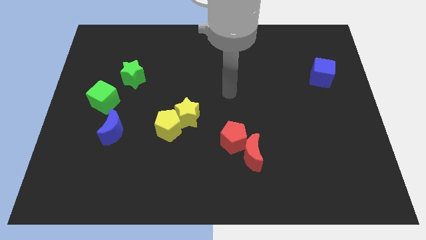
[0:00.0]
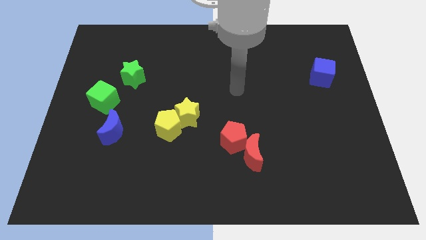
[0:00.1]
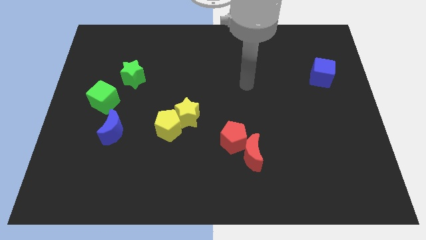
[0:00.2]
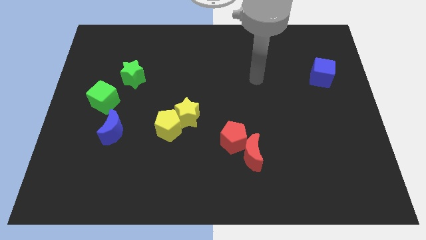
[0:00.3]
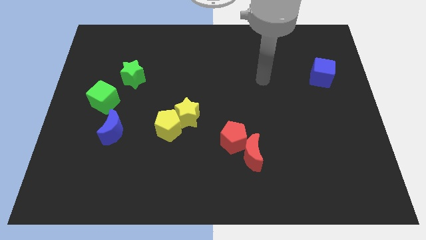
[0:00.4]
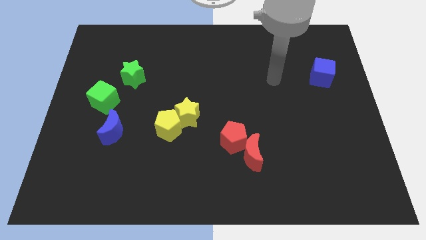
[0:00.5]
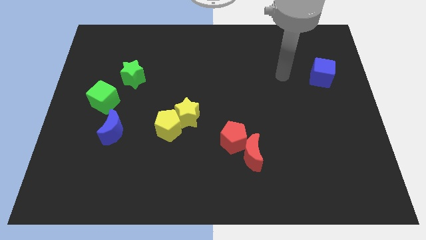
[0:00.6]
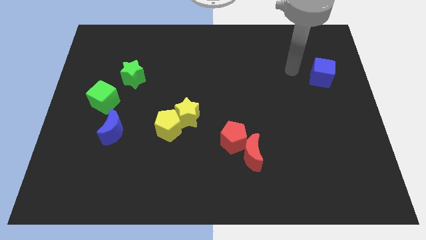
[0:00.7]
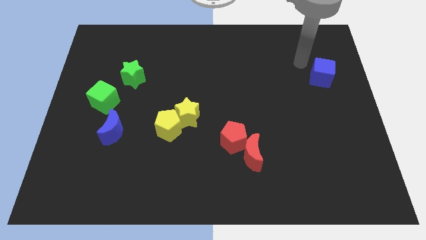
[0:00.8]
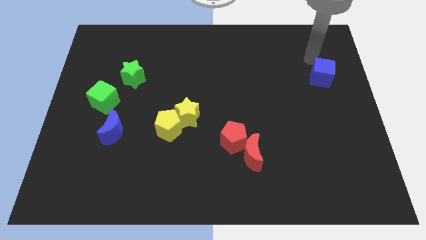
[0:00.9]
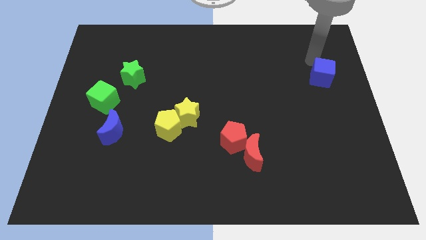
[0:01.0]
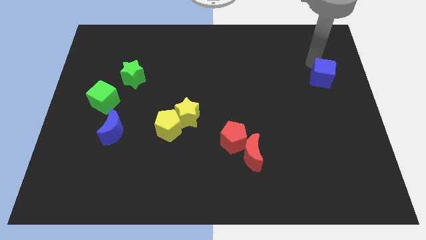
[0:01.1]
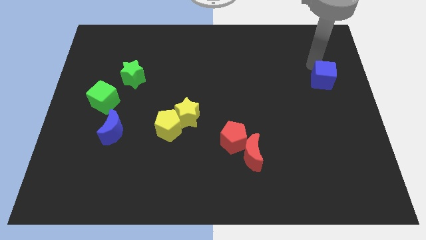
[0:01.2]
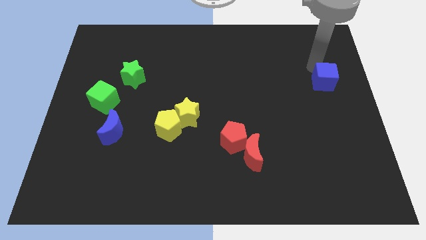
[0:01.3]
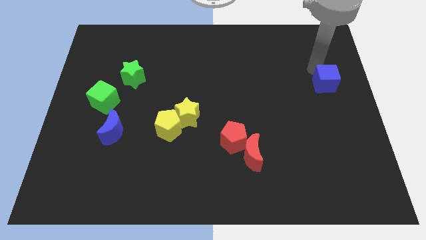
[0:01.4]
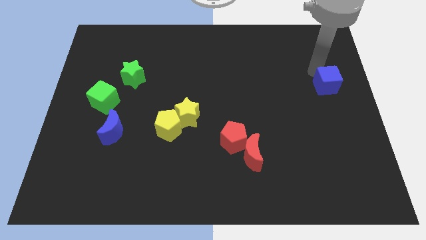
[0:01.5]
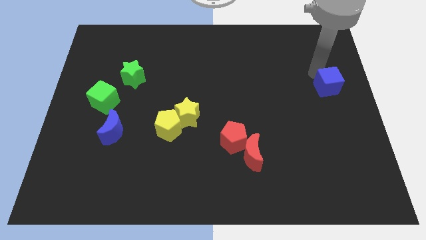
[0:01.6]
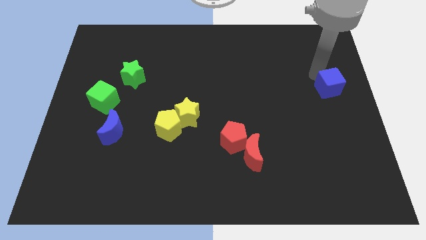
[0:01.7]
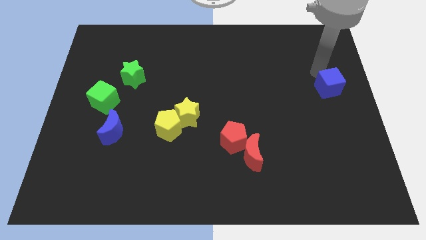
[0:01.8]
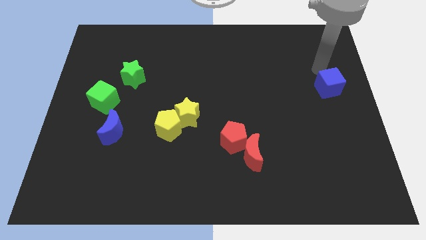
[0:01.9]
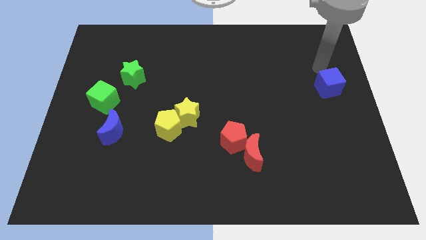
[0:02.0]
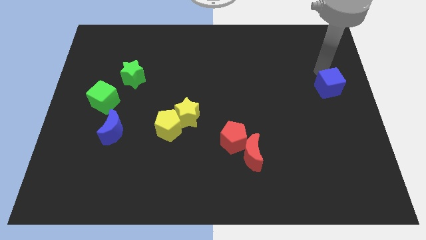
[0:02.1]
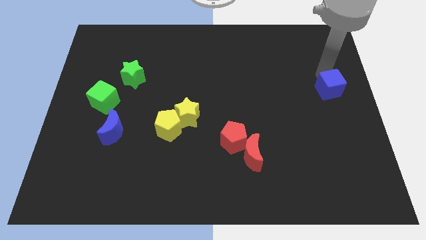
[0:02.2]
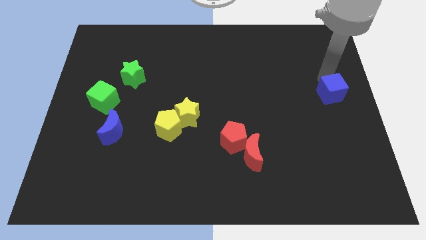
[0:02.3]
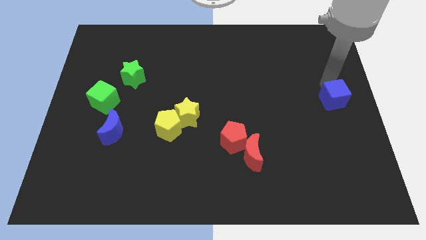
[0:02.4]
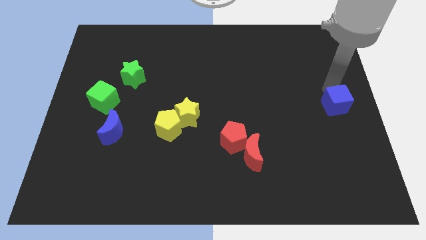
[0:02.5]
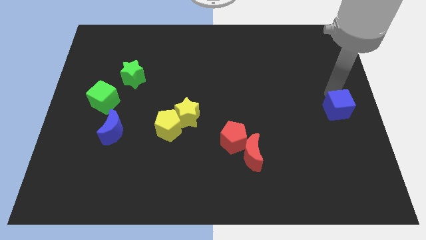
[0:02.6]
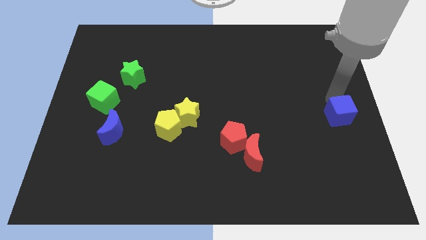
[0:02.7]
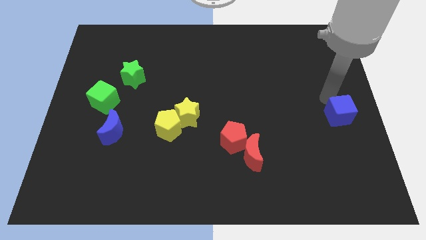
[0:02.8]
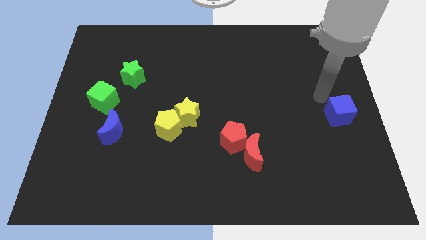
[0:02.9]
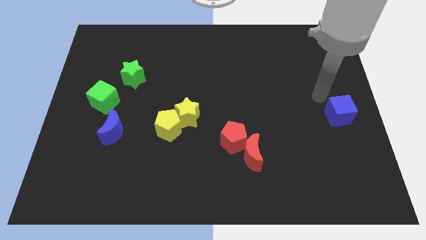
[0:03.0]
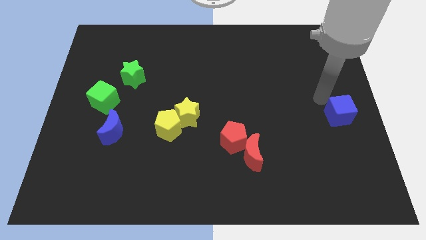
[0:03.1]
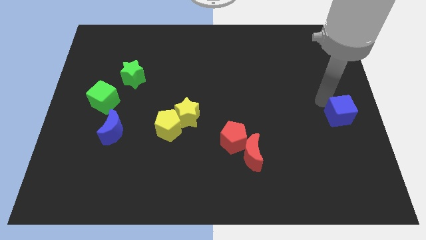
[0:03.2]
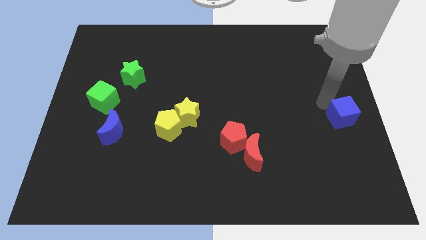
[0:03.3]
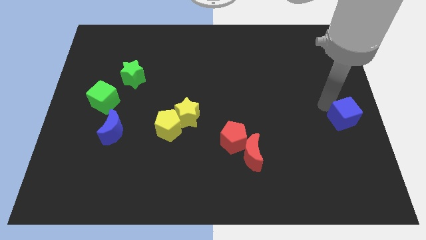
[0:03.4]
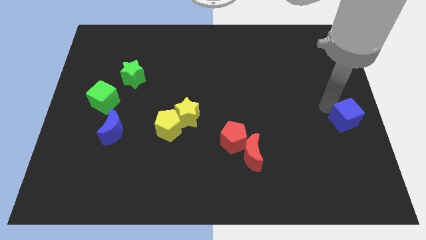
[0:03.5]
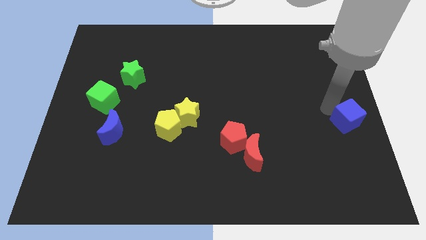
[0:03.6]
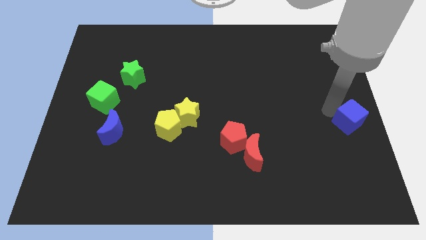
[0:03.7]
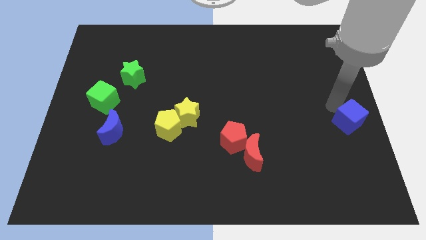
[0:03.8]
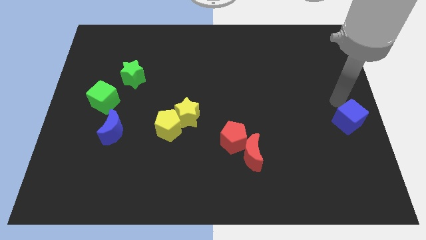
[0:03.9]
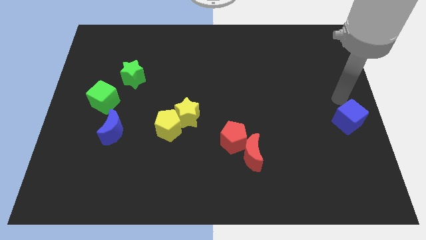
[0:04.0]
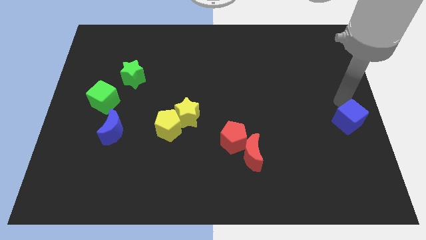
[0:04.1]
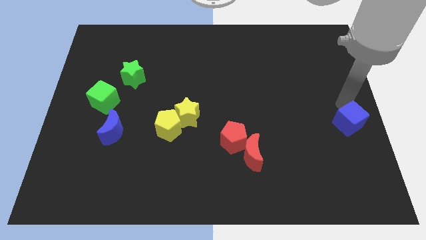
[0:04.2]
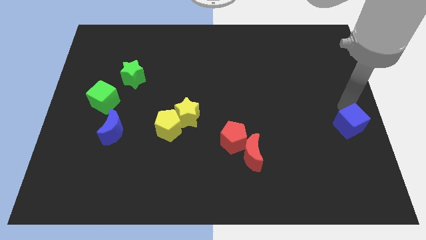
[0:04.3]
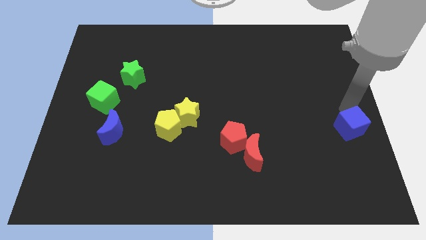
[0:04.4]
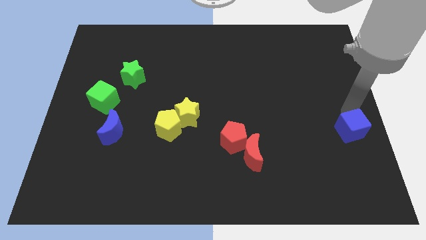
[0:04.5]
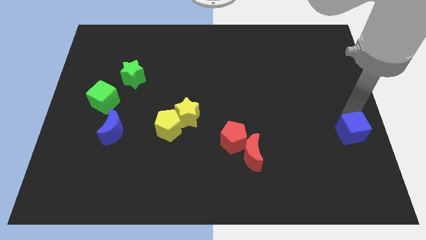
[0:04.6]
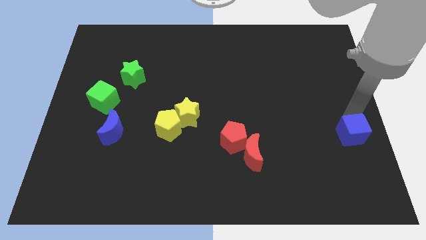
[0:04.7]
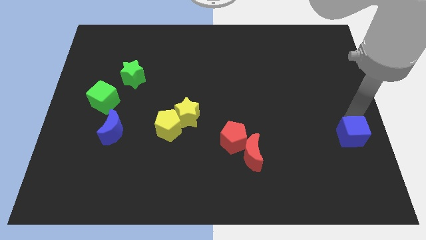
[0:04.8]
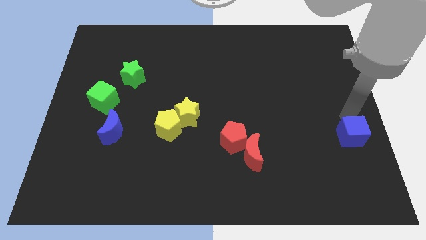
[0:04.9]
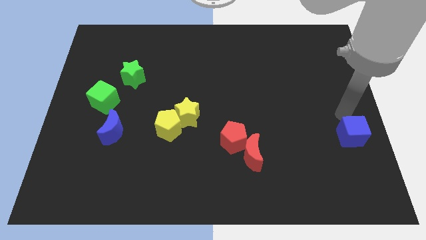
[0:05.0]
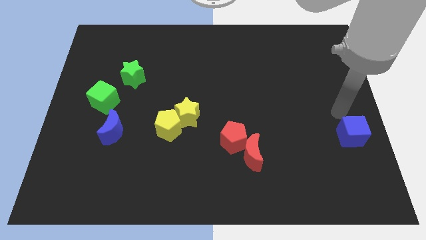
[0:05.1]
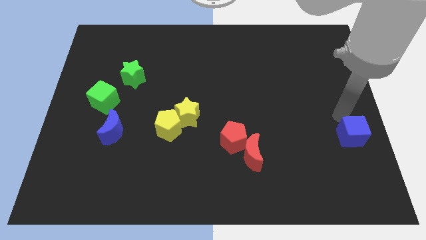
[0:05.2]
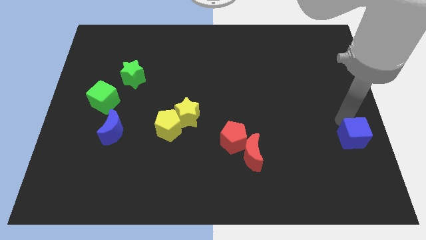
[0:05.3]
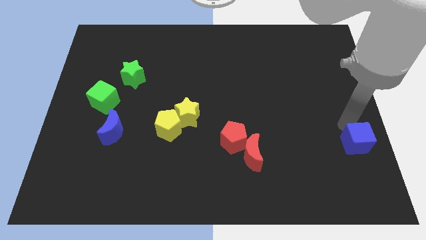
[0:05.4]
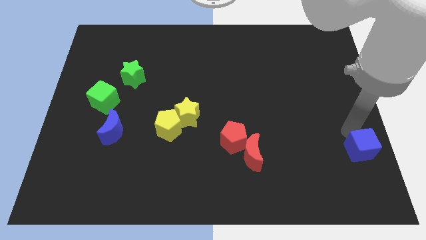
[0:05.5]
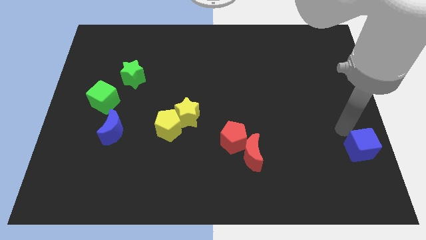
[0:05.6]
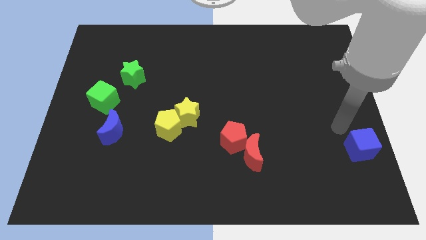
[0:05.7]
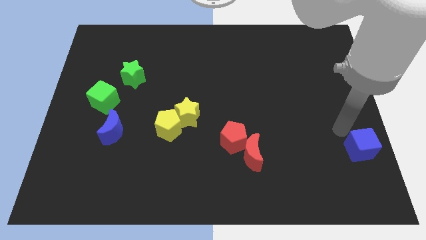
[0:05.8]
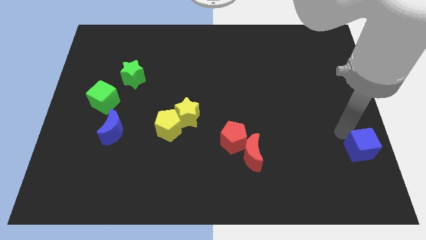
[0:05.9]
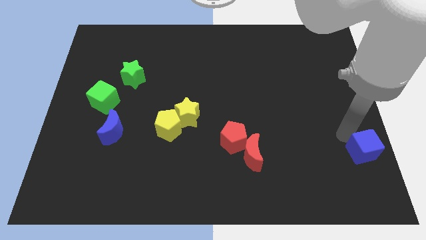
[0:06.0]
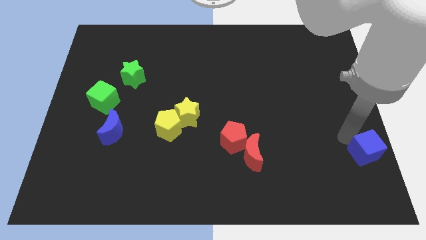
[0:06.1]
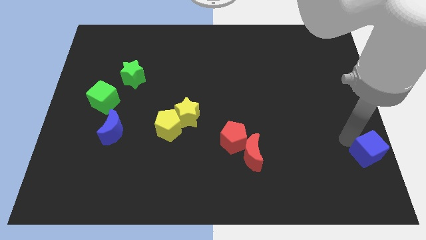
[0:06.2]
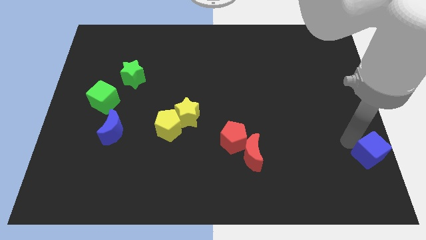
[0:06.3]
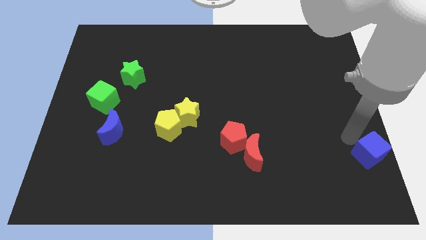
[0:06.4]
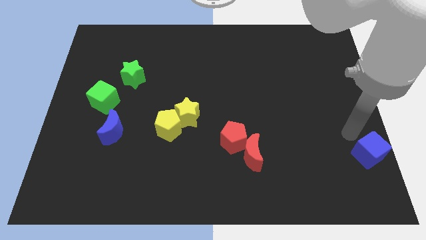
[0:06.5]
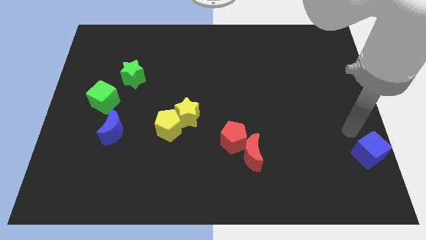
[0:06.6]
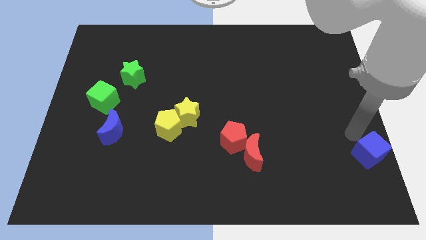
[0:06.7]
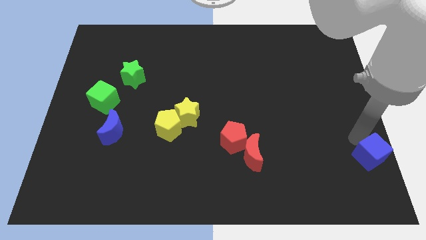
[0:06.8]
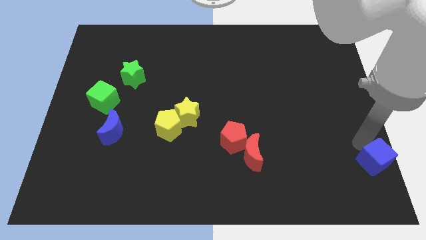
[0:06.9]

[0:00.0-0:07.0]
put the blue cube to the bottom right of the board
